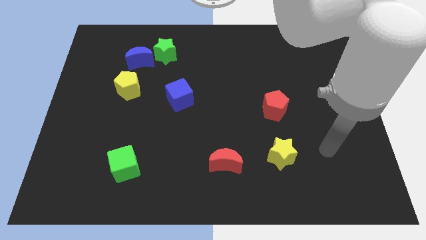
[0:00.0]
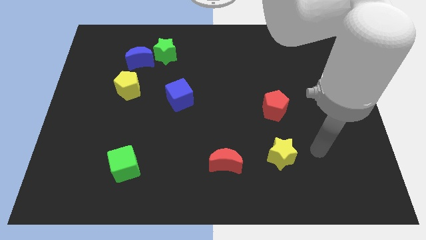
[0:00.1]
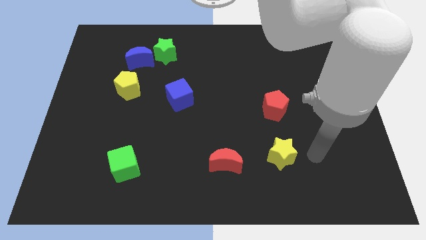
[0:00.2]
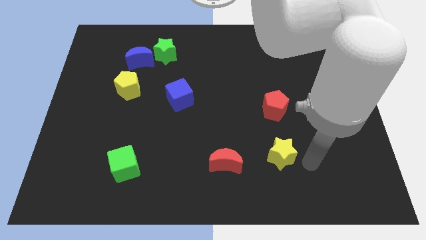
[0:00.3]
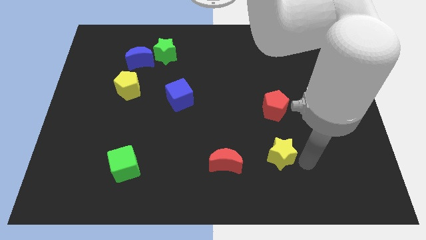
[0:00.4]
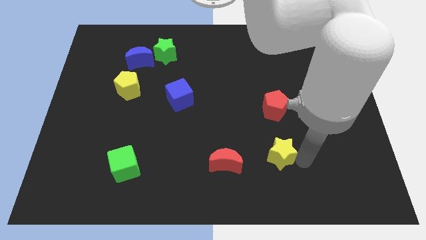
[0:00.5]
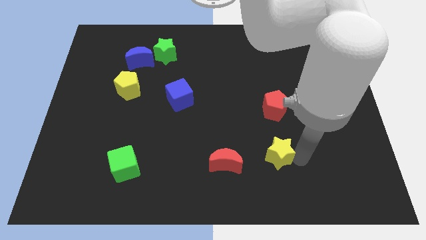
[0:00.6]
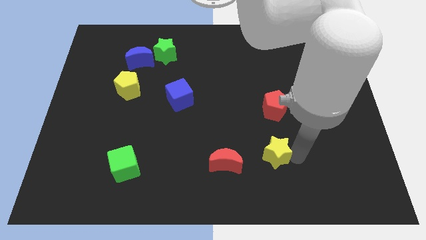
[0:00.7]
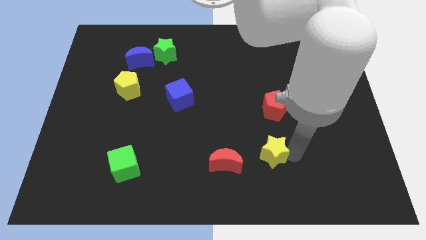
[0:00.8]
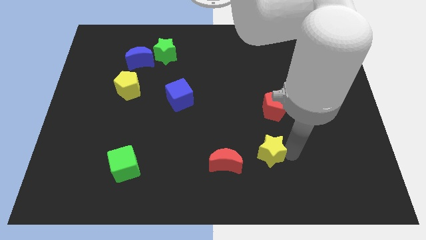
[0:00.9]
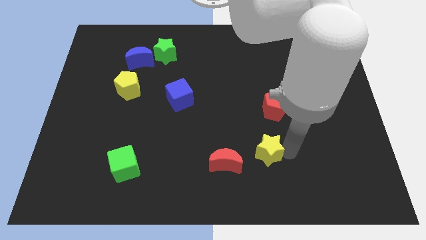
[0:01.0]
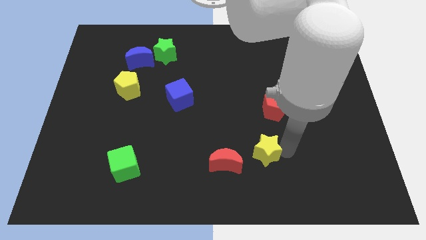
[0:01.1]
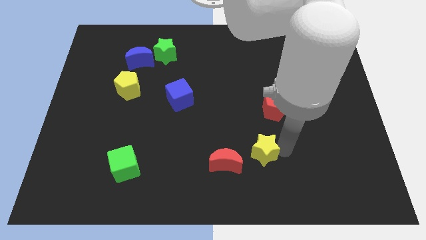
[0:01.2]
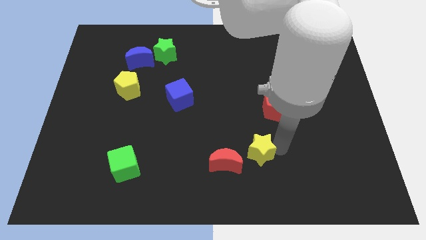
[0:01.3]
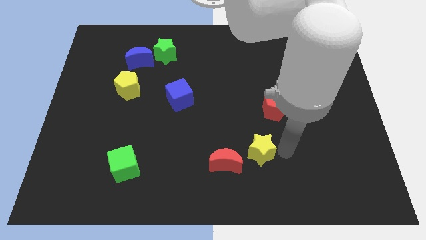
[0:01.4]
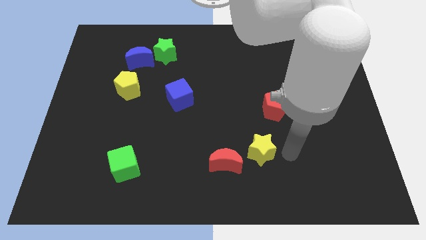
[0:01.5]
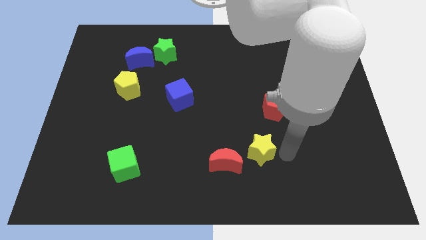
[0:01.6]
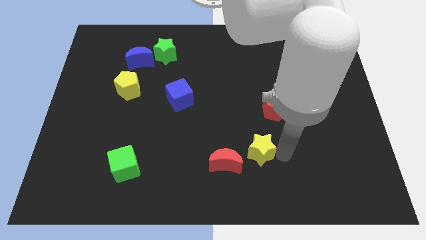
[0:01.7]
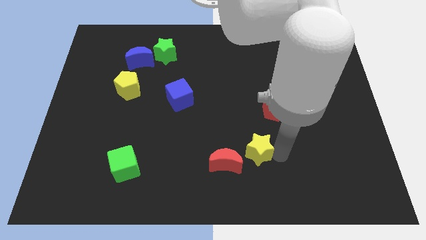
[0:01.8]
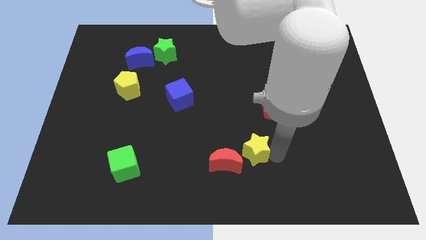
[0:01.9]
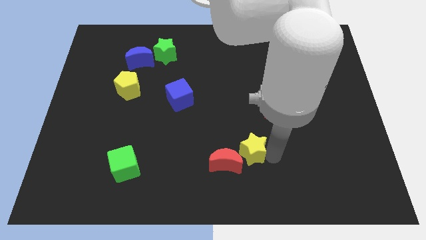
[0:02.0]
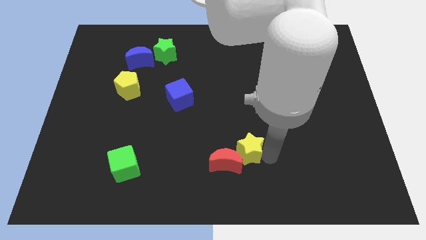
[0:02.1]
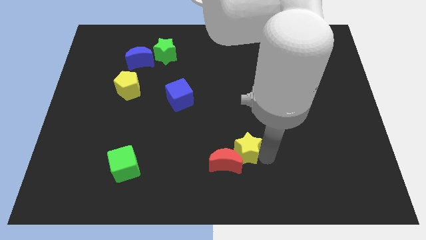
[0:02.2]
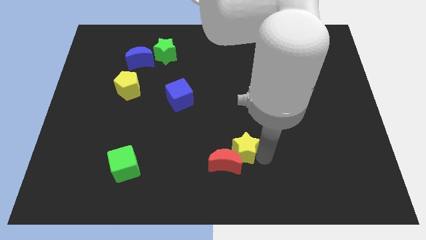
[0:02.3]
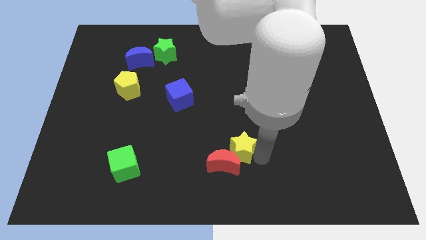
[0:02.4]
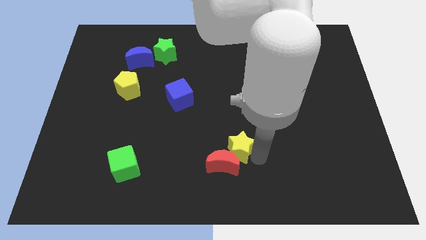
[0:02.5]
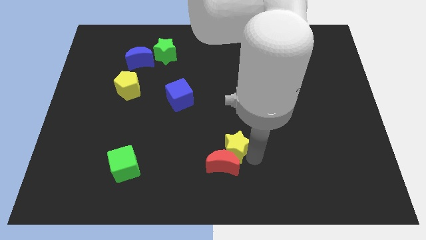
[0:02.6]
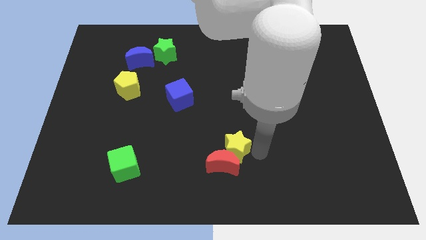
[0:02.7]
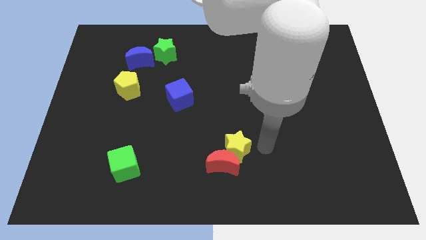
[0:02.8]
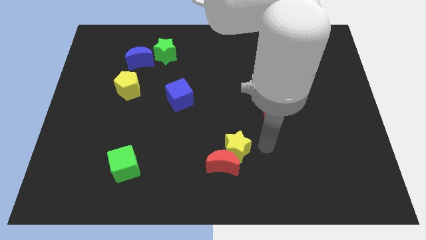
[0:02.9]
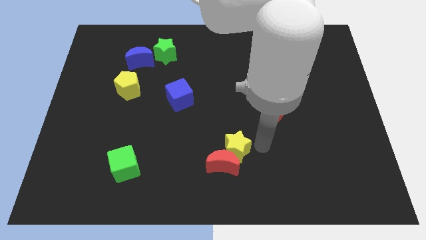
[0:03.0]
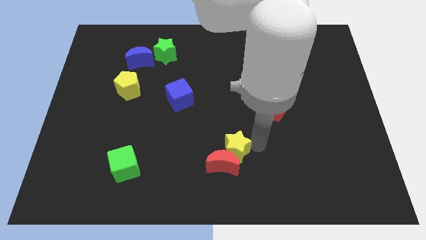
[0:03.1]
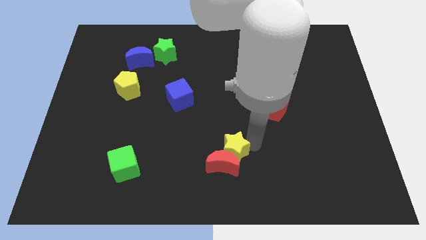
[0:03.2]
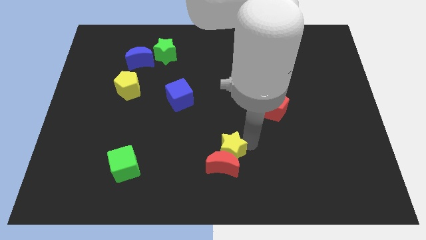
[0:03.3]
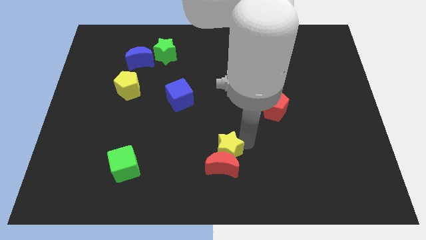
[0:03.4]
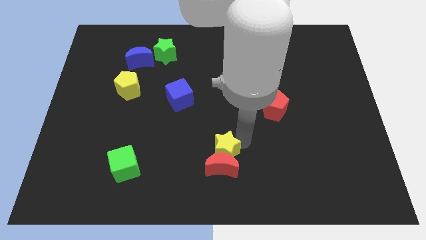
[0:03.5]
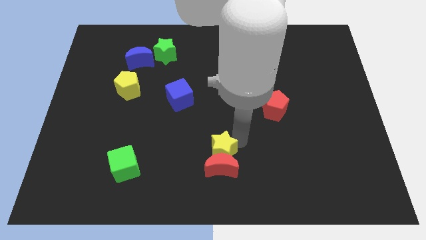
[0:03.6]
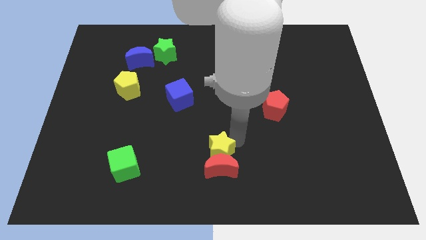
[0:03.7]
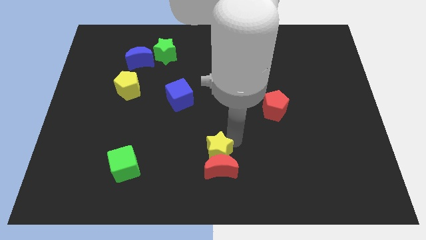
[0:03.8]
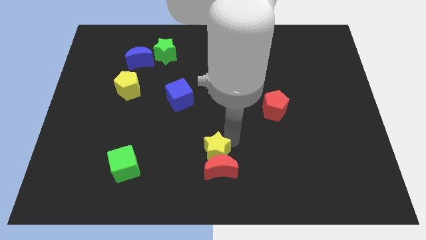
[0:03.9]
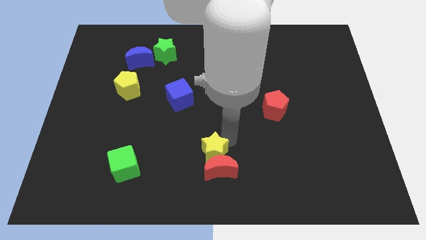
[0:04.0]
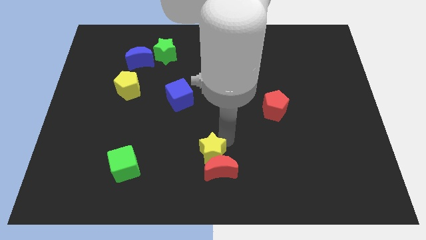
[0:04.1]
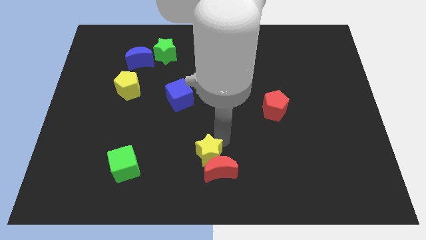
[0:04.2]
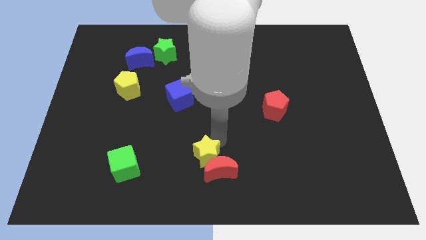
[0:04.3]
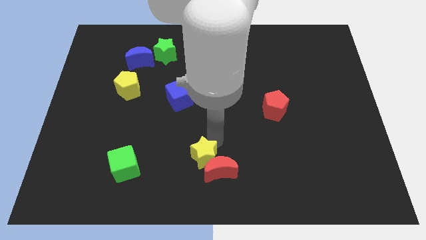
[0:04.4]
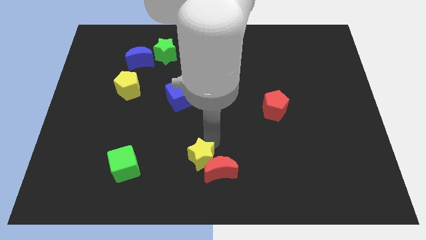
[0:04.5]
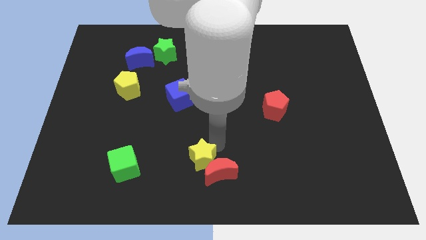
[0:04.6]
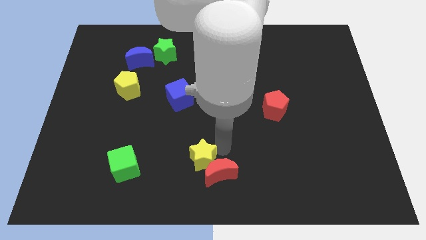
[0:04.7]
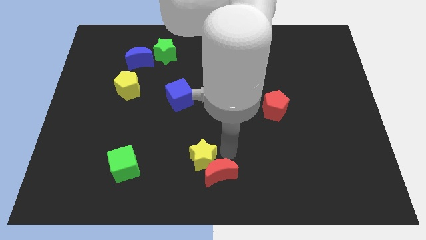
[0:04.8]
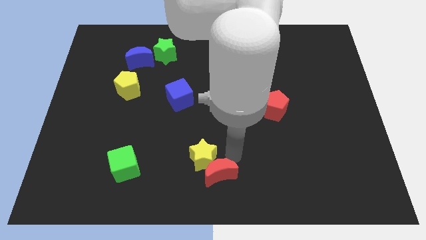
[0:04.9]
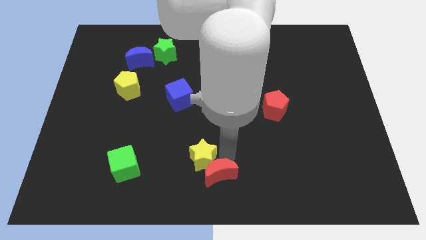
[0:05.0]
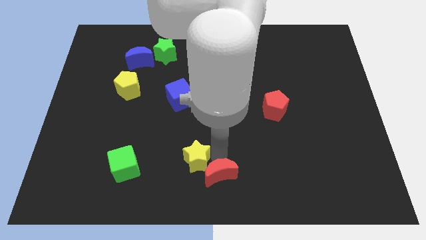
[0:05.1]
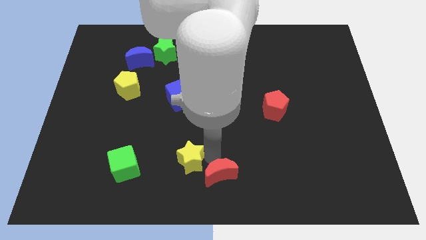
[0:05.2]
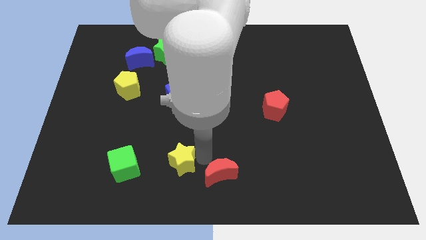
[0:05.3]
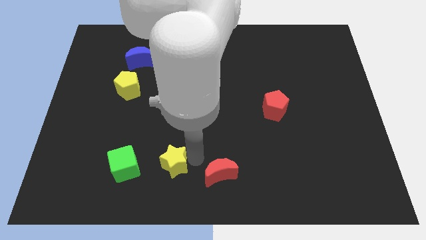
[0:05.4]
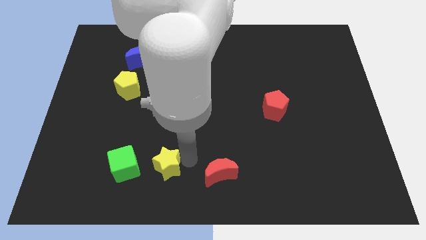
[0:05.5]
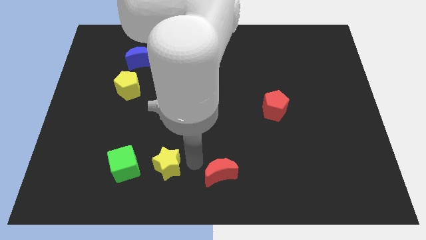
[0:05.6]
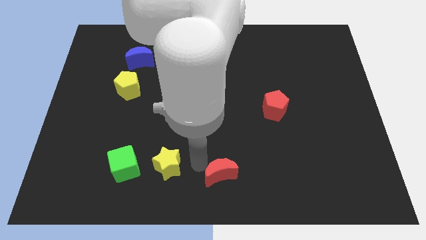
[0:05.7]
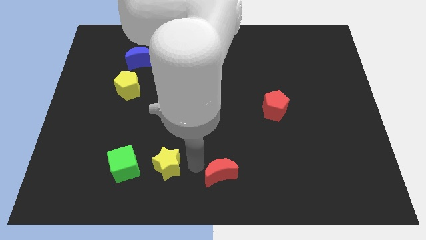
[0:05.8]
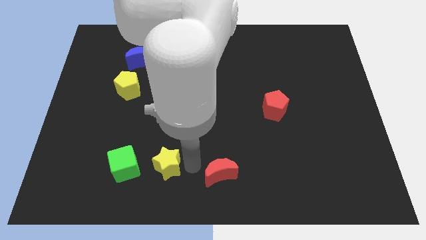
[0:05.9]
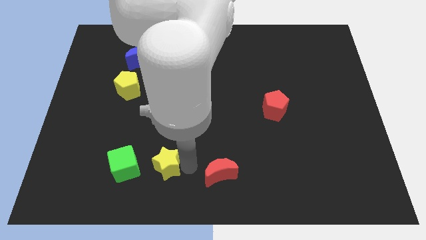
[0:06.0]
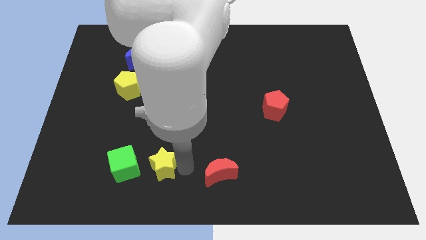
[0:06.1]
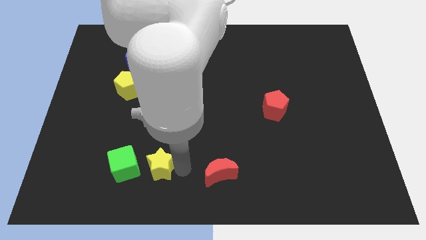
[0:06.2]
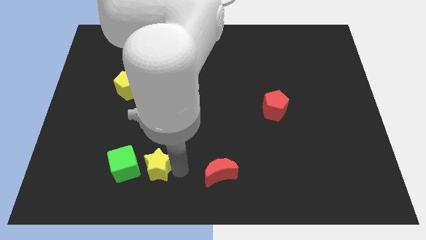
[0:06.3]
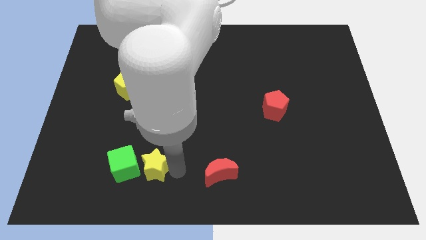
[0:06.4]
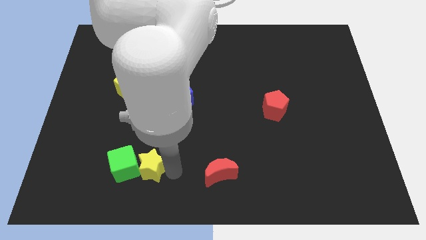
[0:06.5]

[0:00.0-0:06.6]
slide the yellow star to the green cube

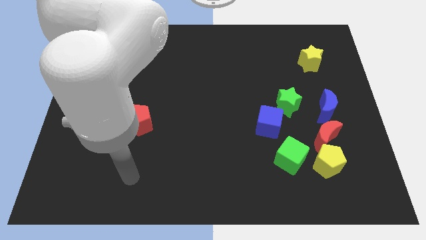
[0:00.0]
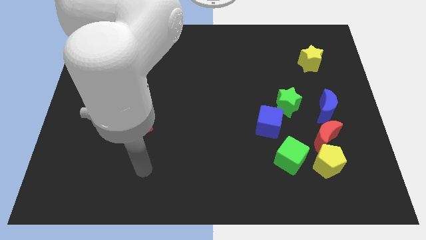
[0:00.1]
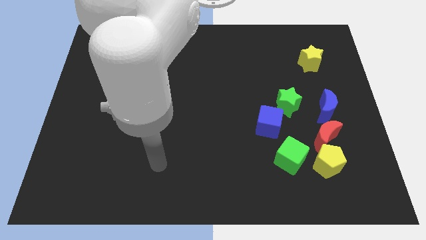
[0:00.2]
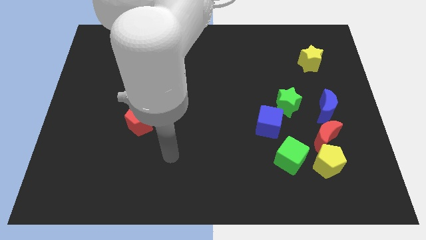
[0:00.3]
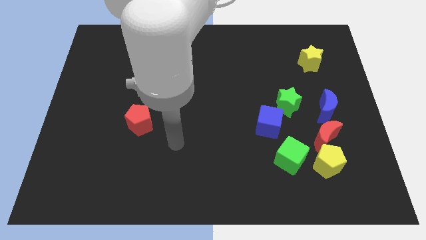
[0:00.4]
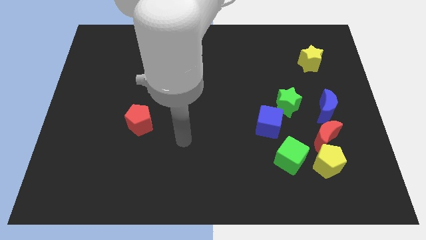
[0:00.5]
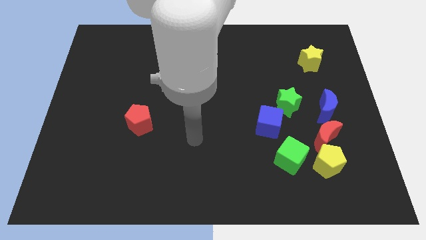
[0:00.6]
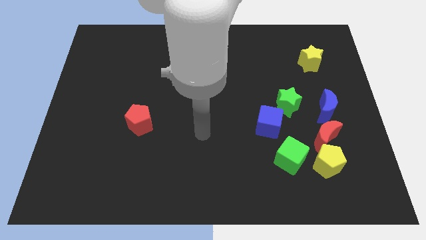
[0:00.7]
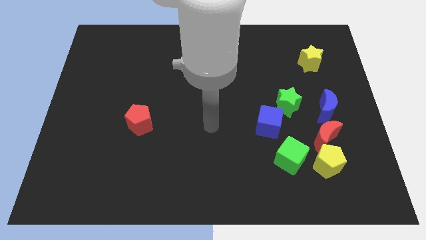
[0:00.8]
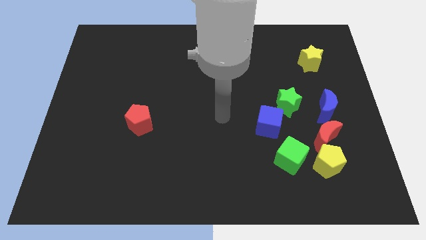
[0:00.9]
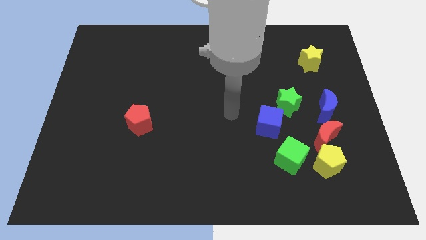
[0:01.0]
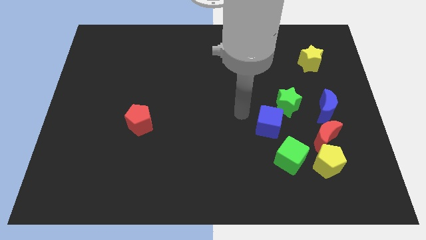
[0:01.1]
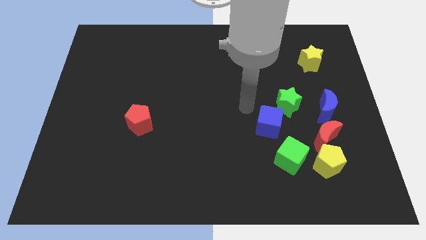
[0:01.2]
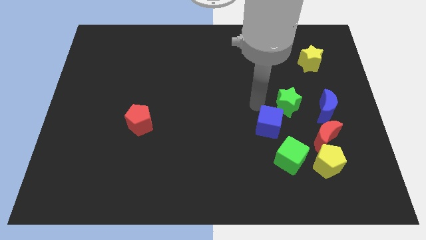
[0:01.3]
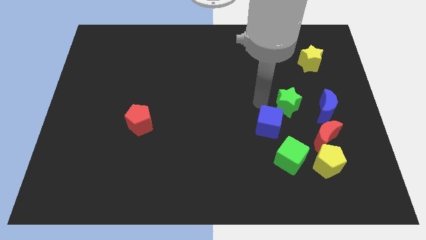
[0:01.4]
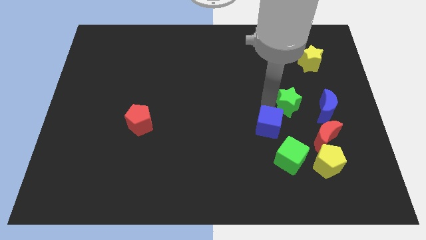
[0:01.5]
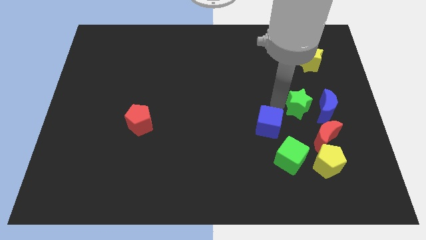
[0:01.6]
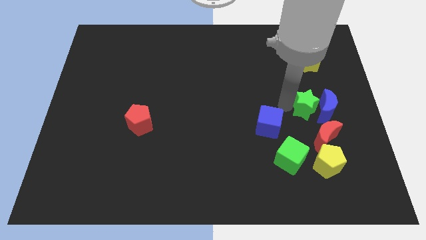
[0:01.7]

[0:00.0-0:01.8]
slide the green star towards the blue moon
